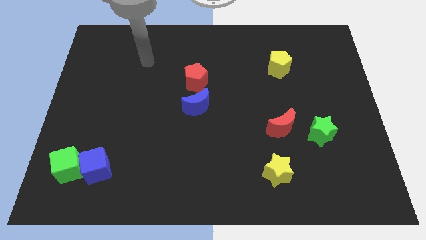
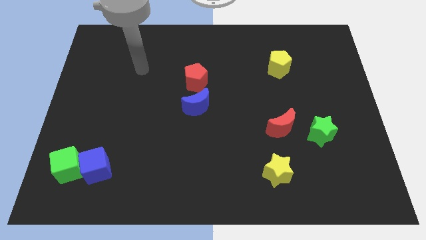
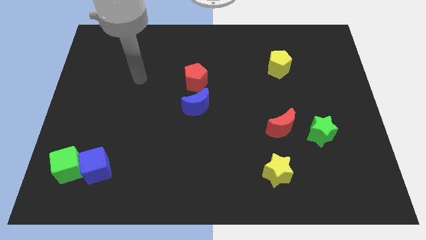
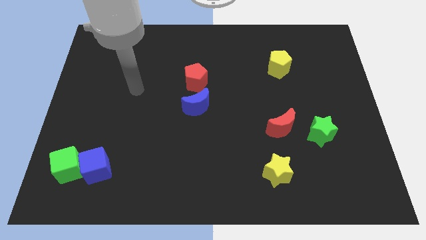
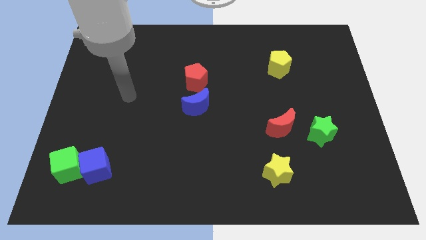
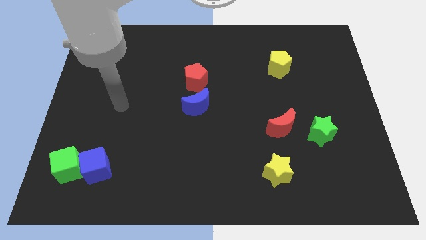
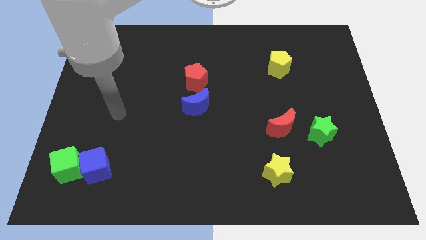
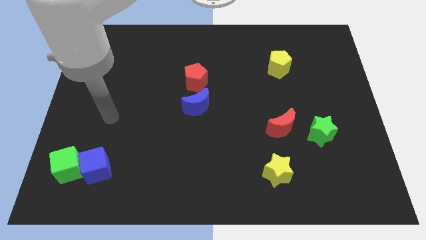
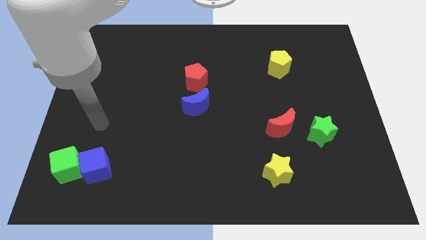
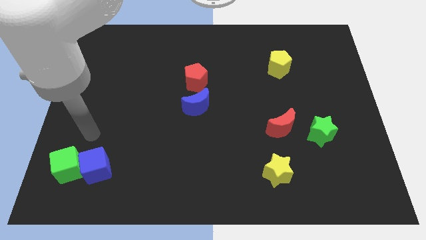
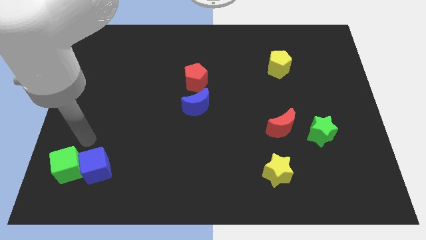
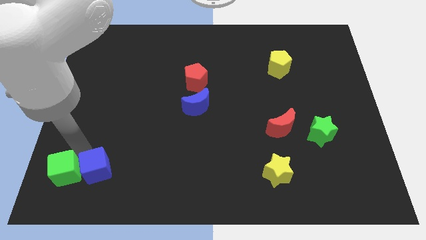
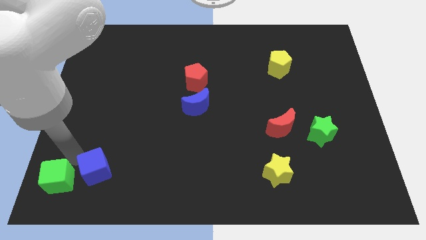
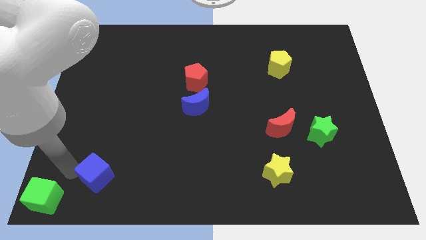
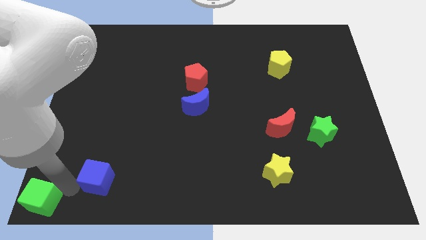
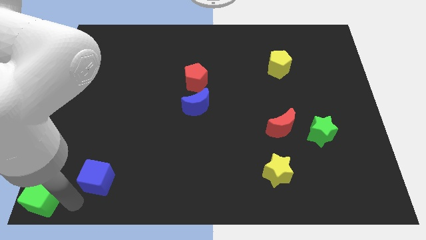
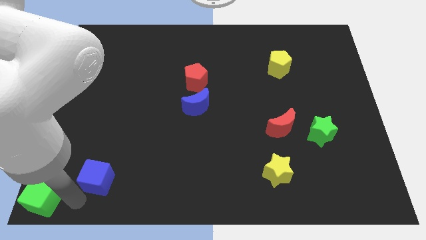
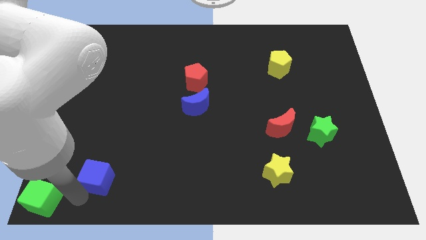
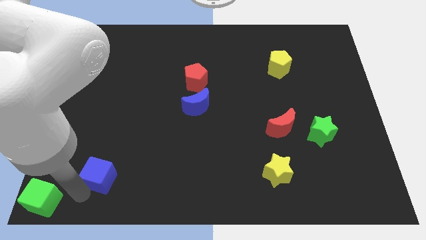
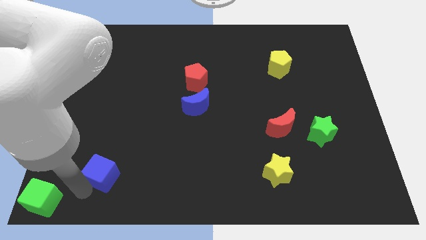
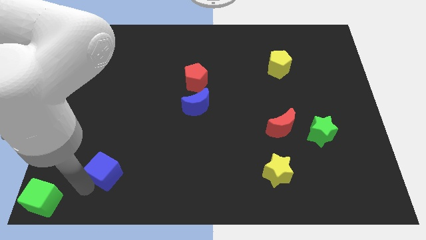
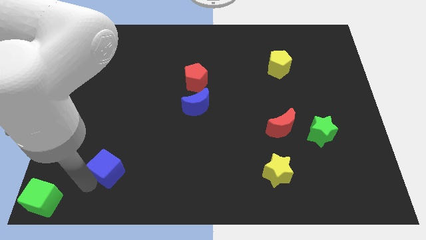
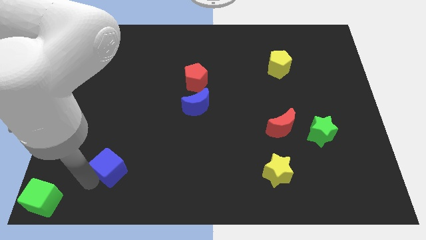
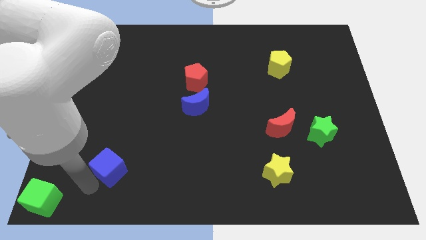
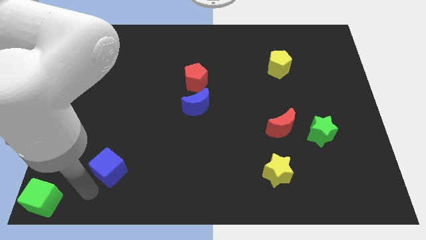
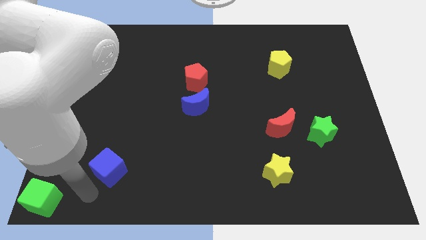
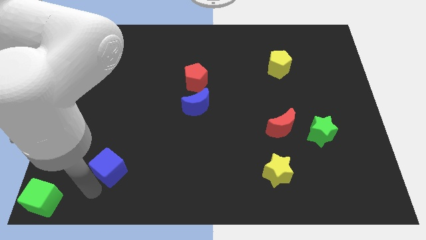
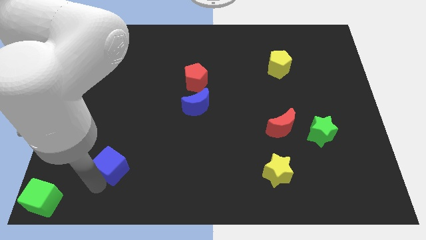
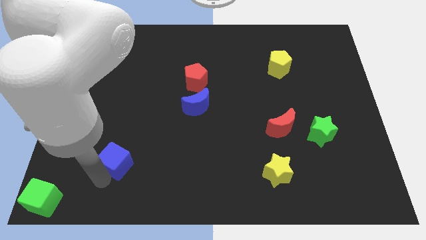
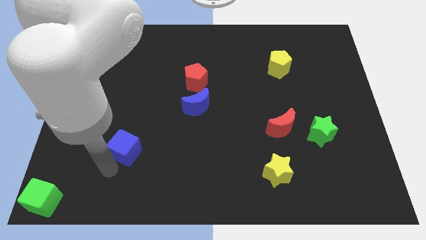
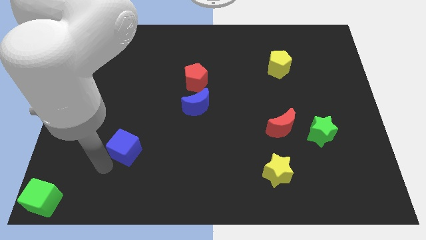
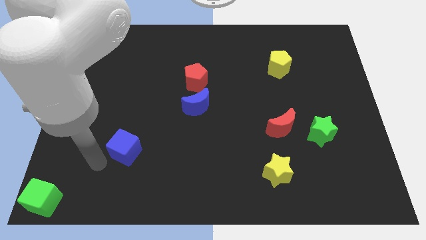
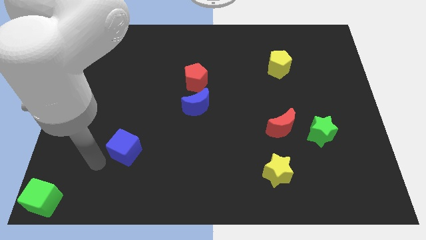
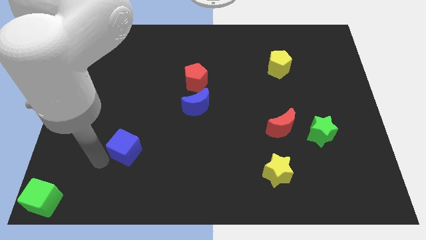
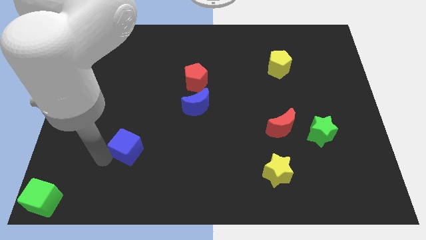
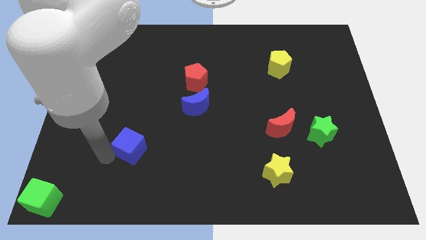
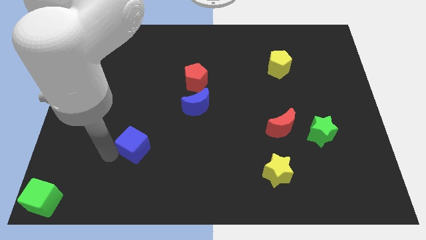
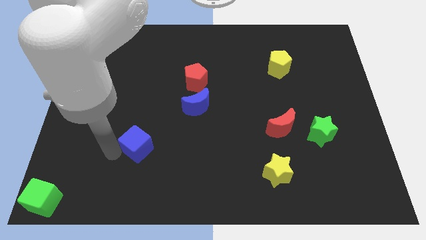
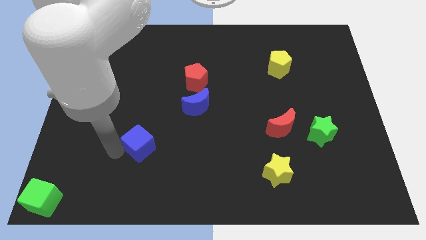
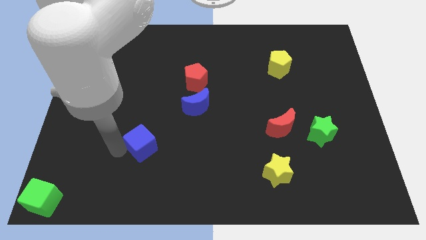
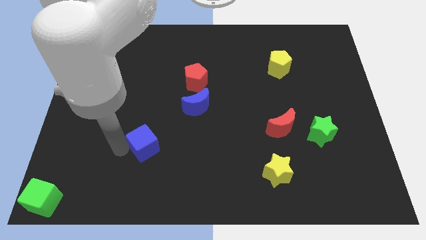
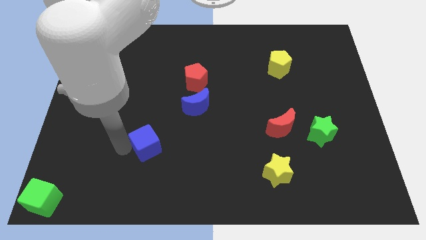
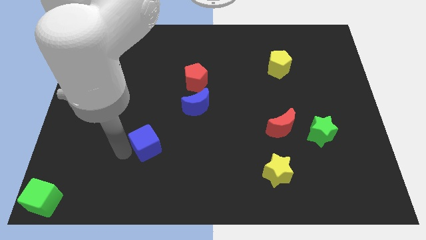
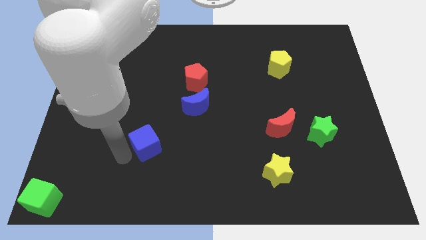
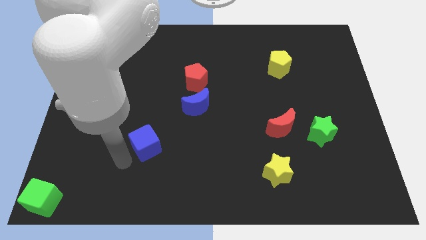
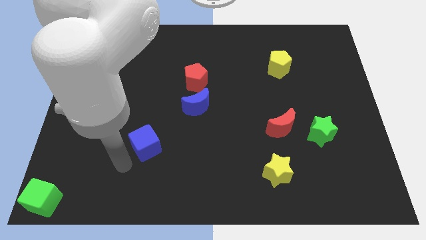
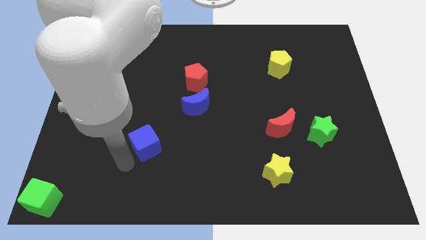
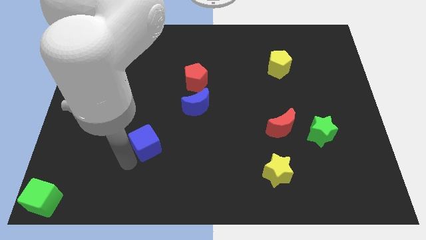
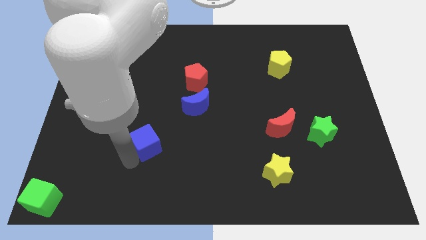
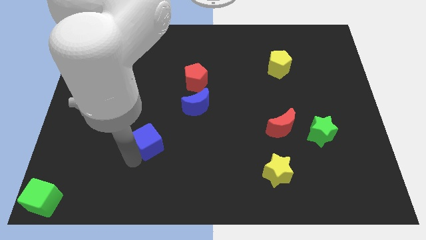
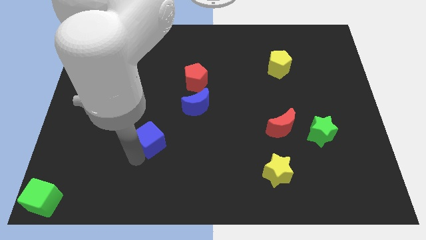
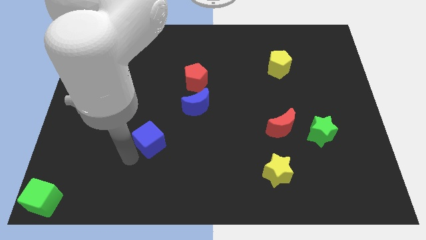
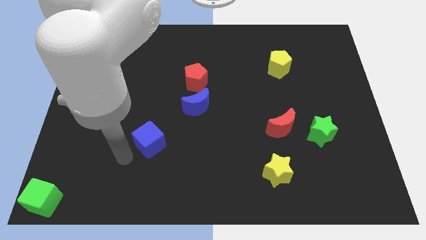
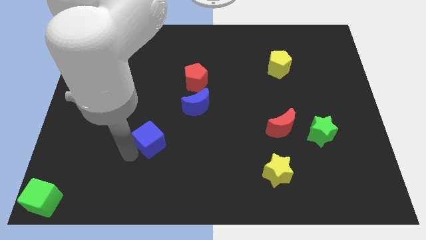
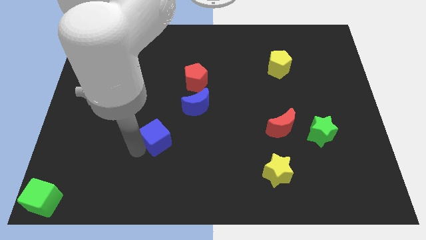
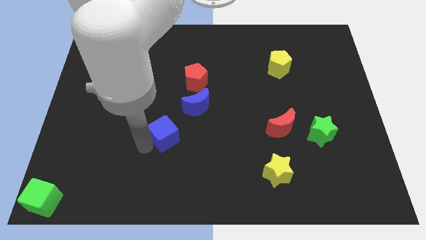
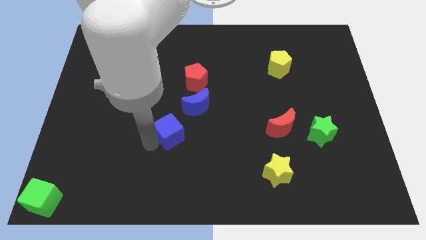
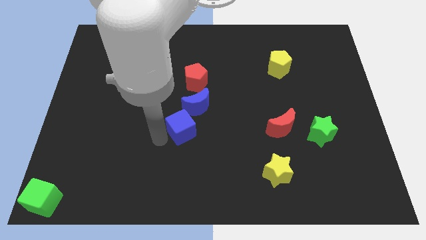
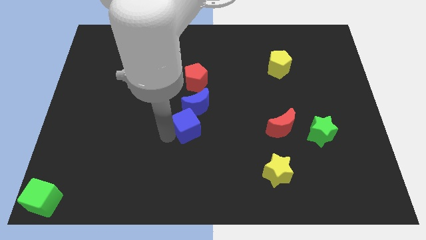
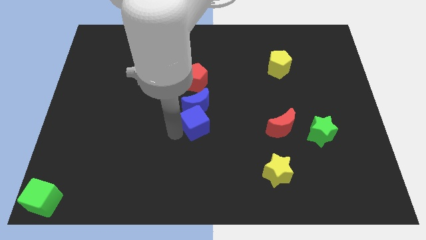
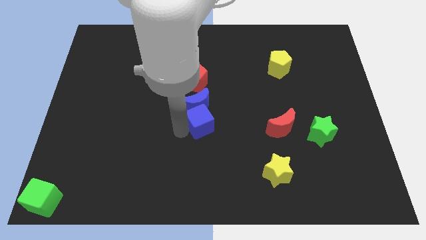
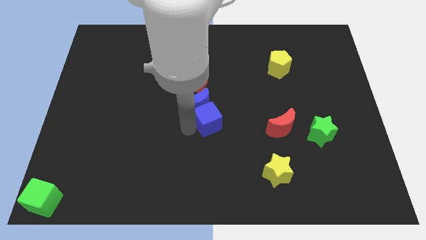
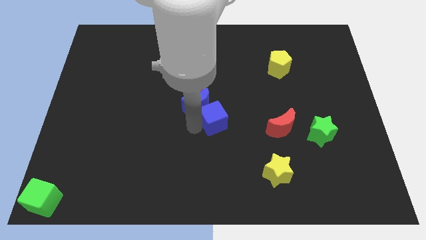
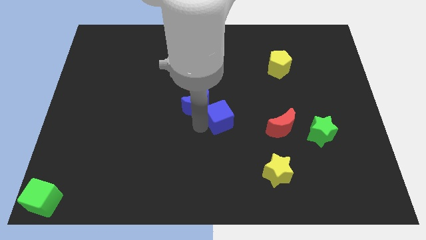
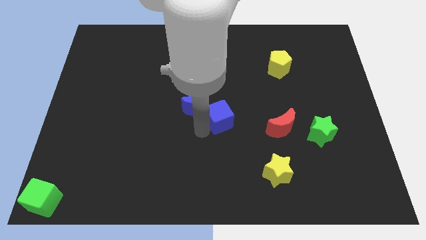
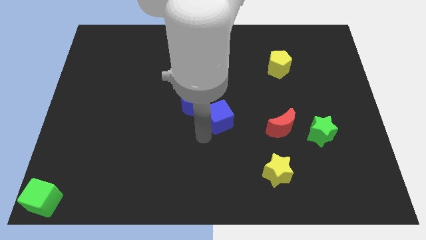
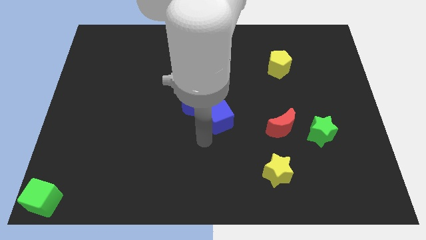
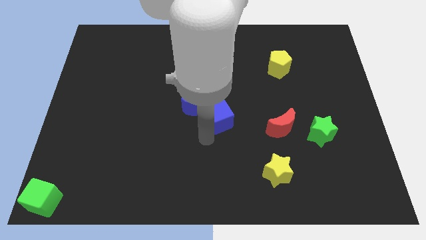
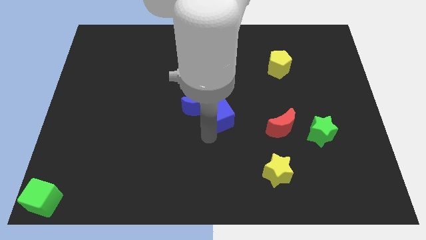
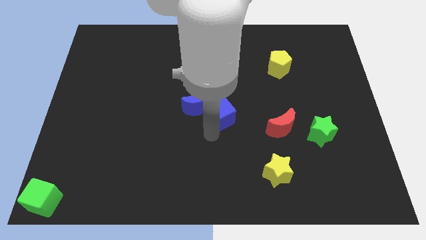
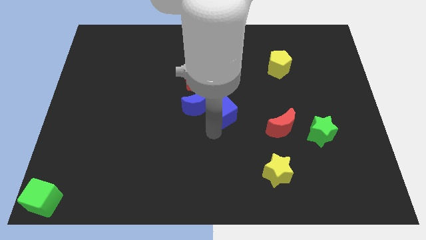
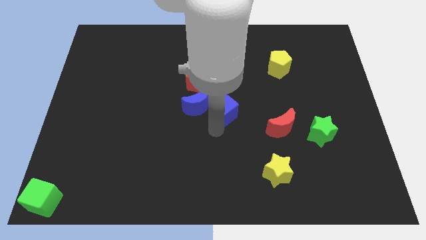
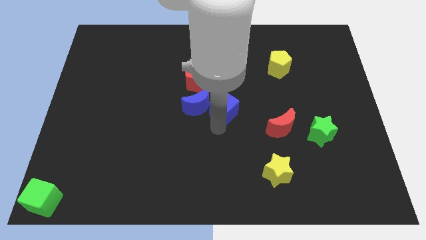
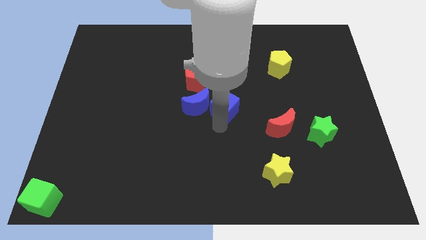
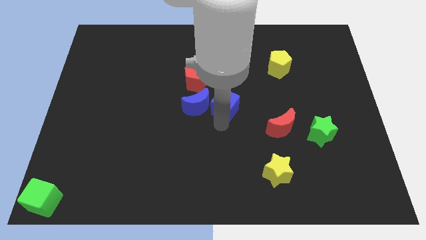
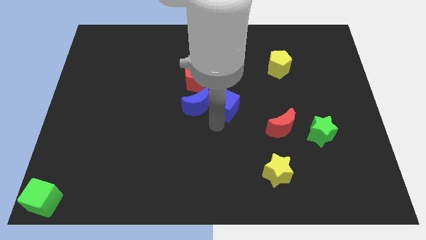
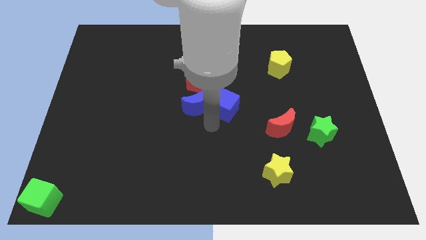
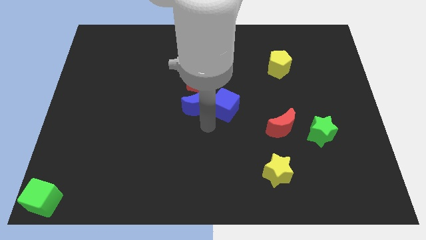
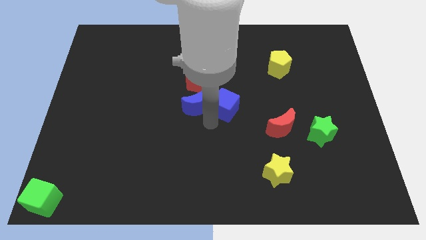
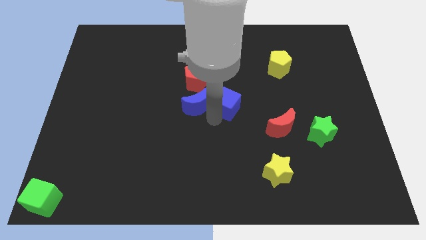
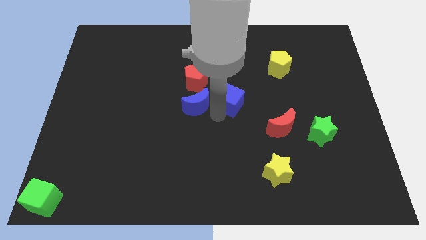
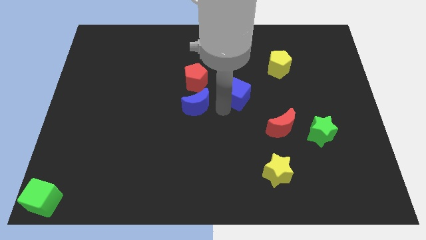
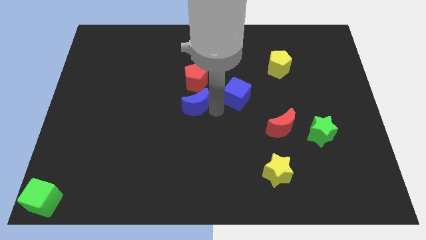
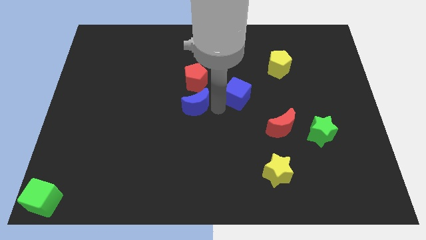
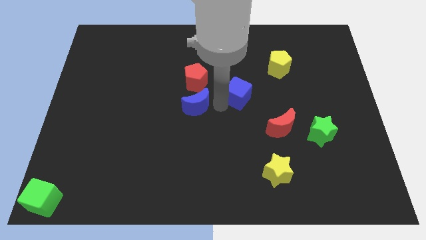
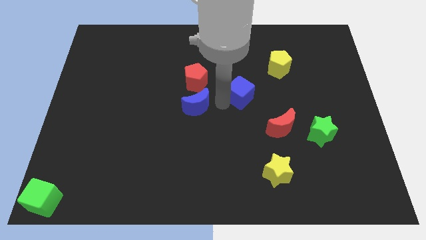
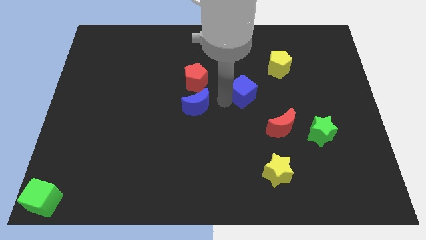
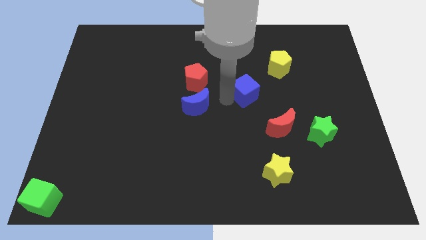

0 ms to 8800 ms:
put the blue cube to the bottom left side of the yellow pentagon
